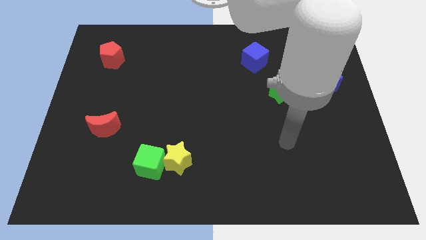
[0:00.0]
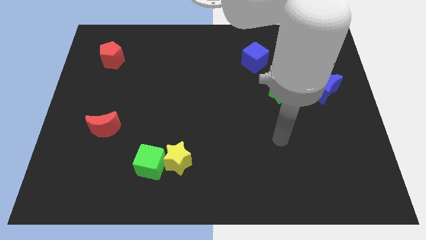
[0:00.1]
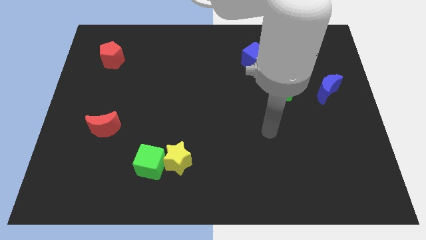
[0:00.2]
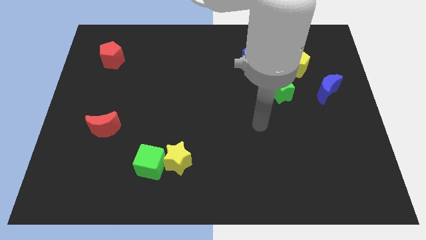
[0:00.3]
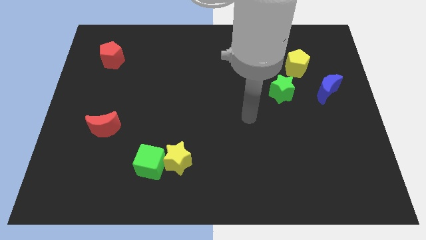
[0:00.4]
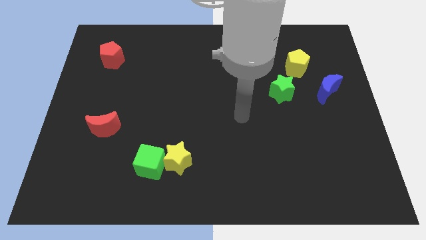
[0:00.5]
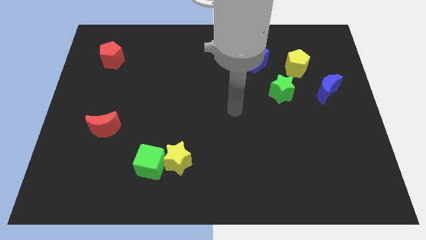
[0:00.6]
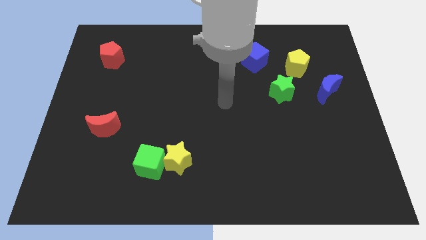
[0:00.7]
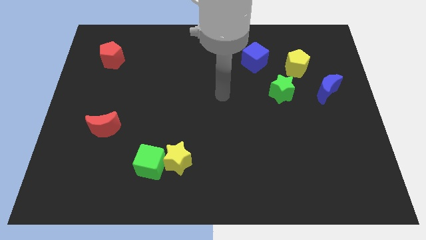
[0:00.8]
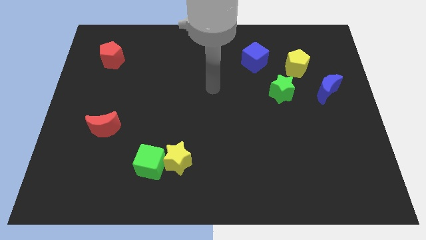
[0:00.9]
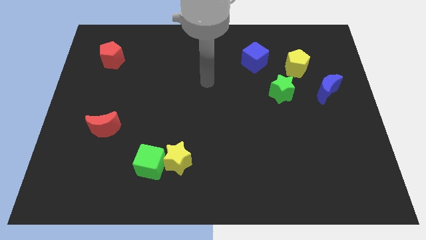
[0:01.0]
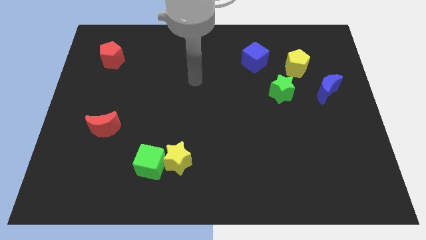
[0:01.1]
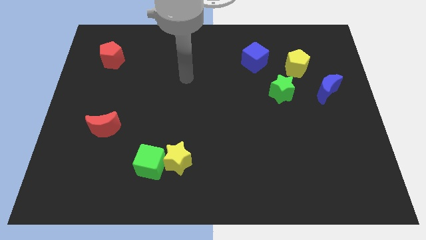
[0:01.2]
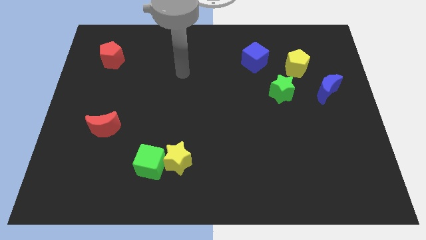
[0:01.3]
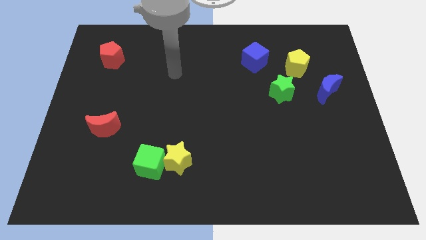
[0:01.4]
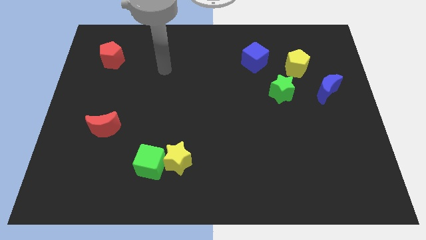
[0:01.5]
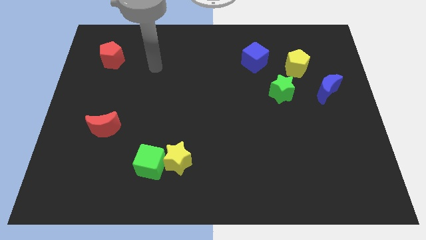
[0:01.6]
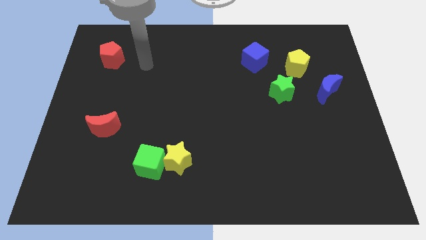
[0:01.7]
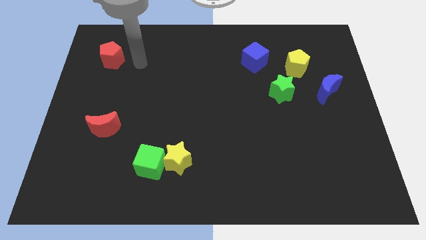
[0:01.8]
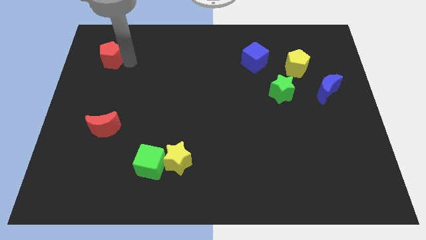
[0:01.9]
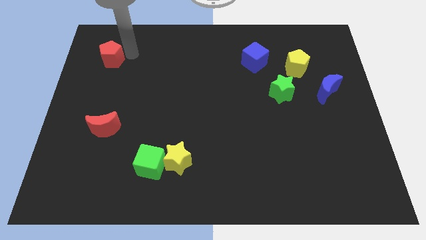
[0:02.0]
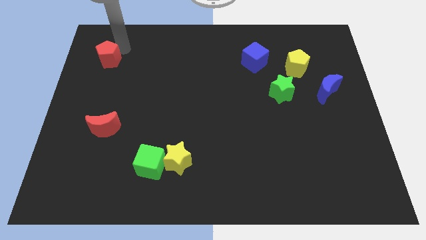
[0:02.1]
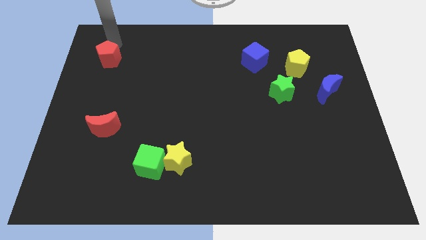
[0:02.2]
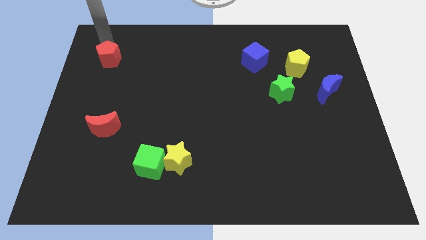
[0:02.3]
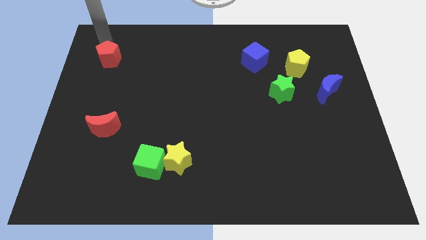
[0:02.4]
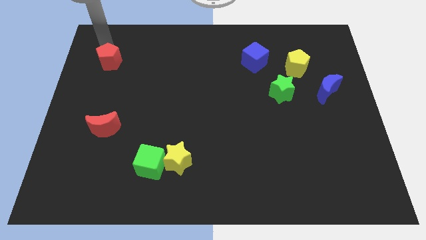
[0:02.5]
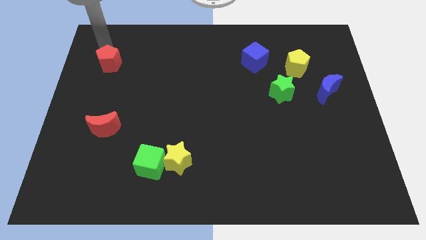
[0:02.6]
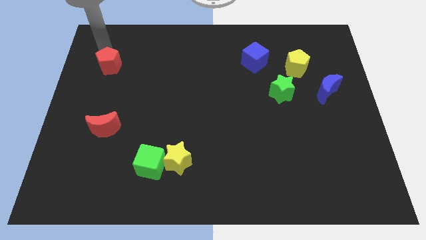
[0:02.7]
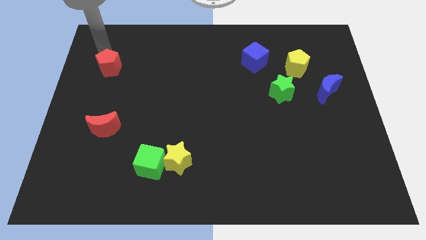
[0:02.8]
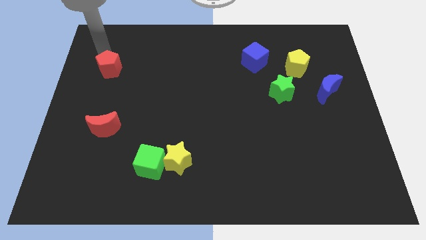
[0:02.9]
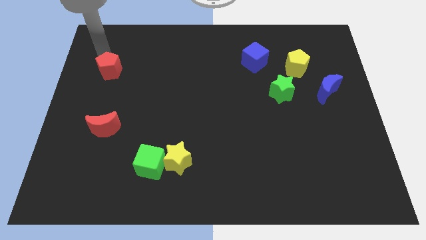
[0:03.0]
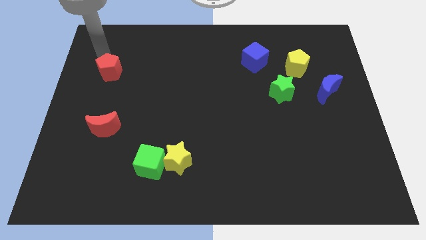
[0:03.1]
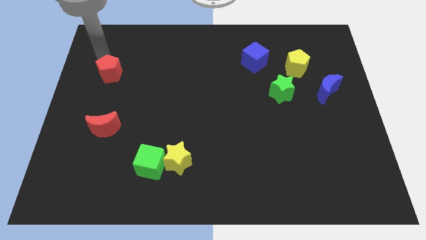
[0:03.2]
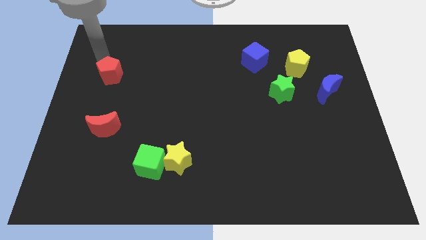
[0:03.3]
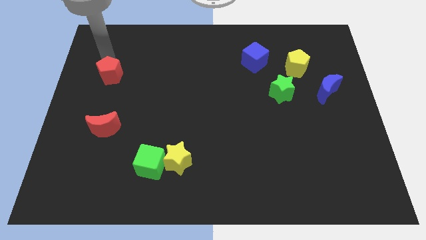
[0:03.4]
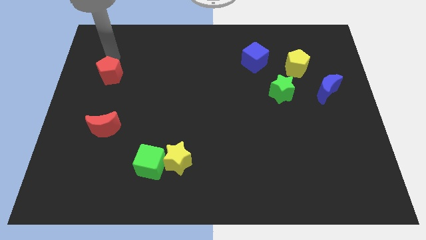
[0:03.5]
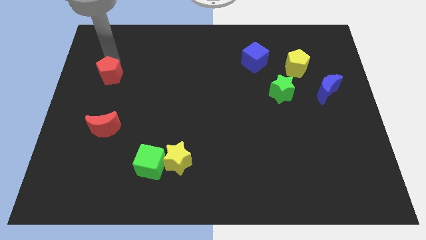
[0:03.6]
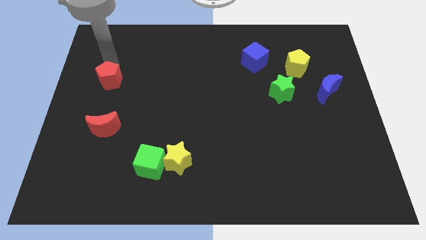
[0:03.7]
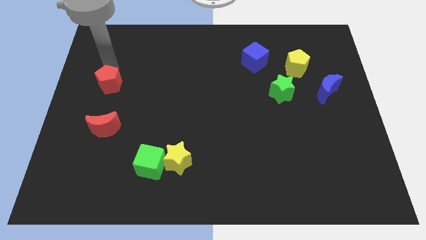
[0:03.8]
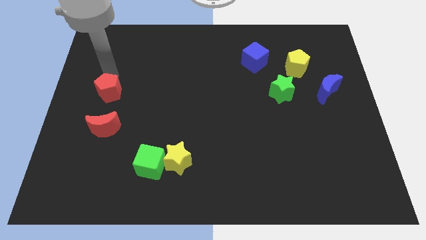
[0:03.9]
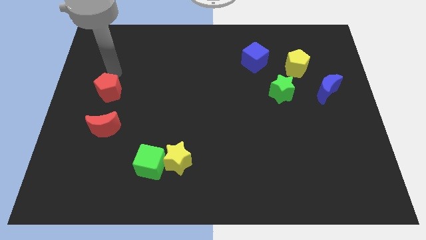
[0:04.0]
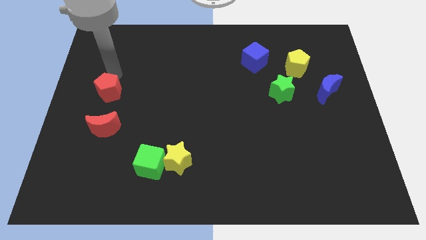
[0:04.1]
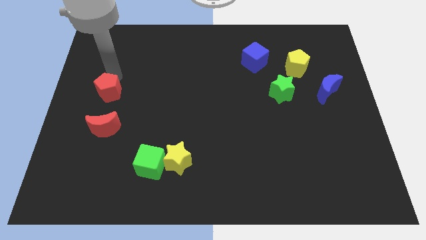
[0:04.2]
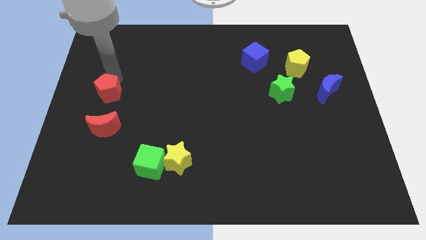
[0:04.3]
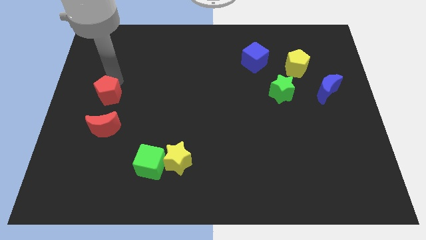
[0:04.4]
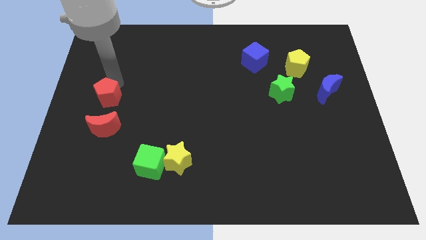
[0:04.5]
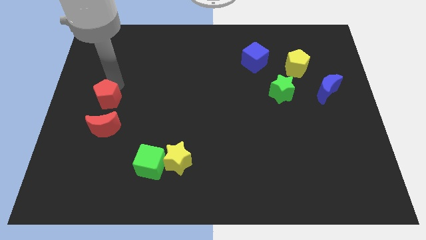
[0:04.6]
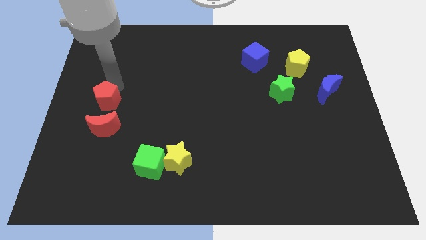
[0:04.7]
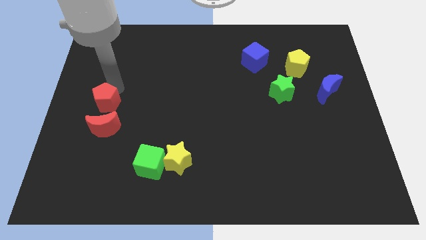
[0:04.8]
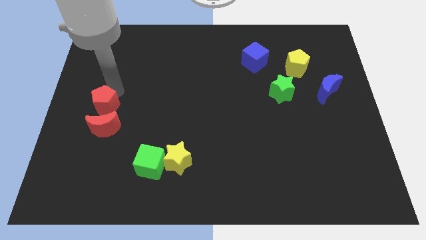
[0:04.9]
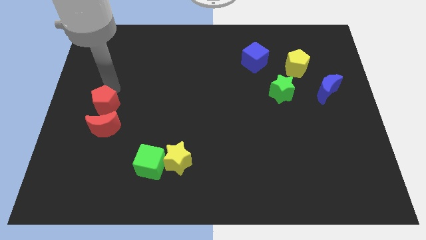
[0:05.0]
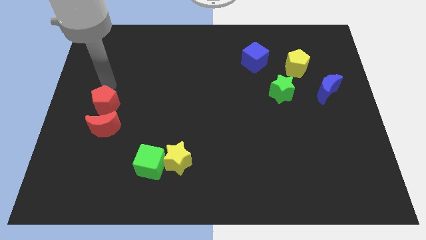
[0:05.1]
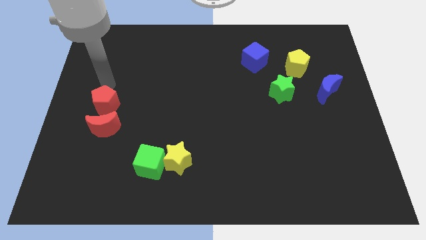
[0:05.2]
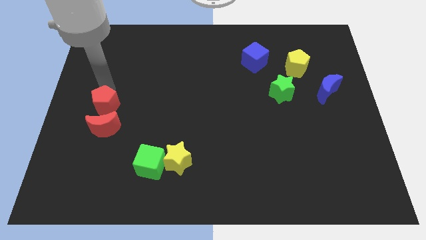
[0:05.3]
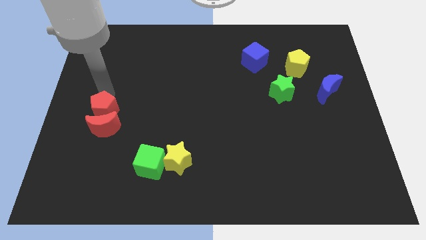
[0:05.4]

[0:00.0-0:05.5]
push the red pentagon to the red moon

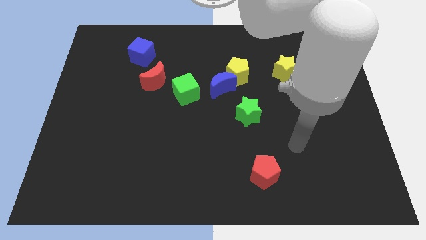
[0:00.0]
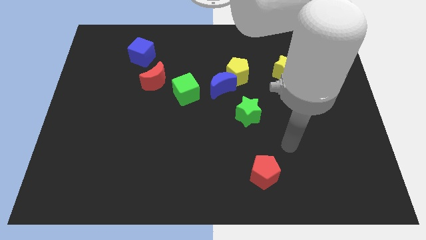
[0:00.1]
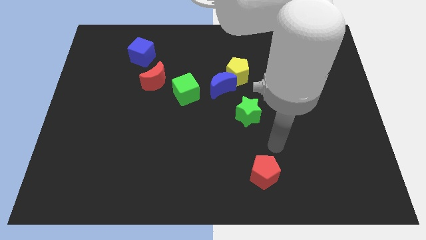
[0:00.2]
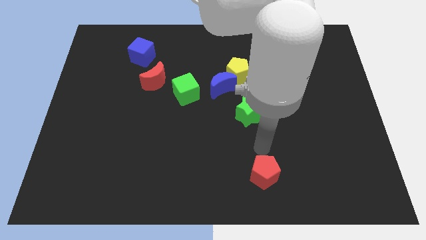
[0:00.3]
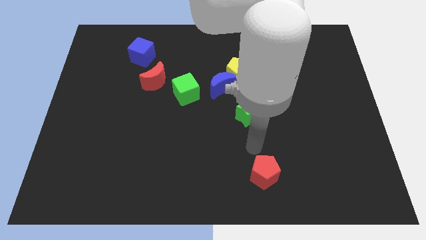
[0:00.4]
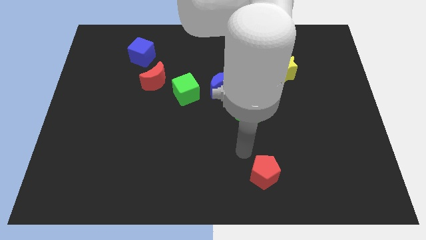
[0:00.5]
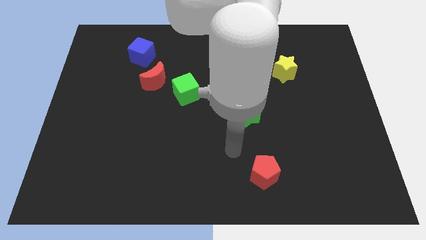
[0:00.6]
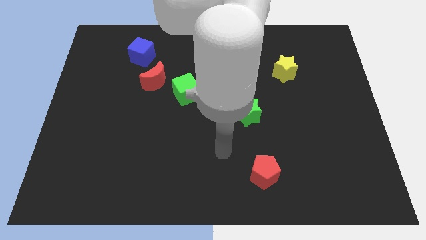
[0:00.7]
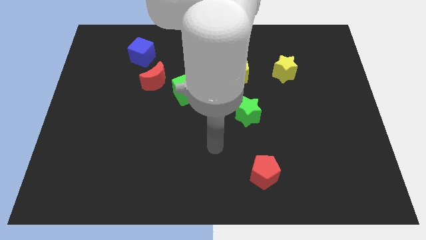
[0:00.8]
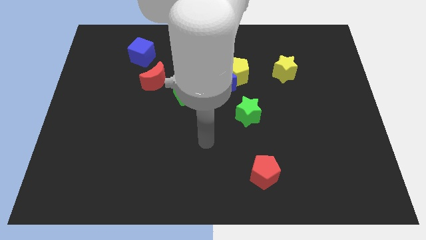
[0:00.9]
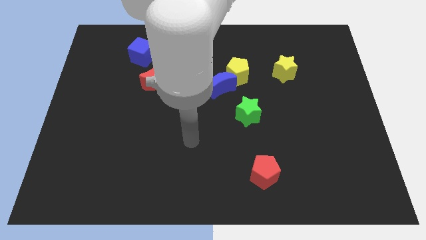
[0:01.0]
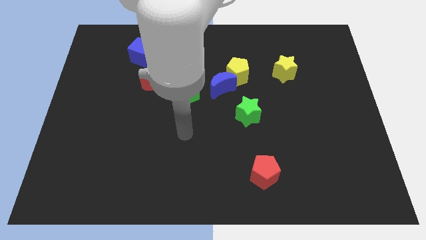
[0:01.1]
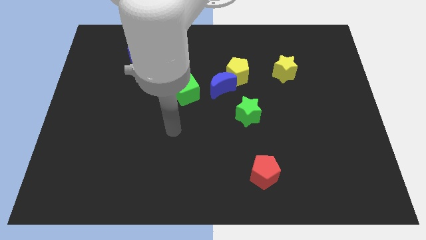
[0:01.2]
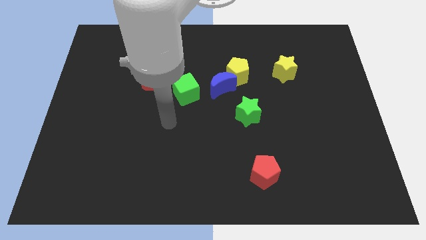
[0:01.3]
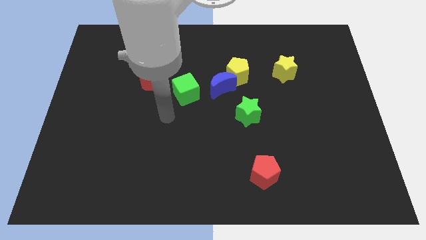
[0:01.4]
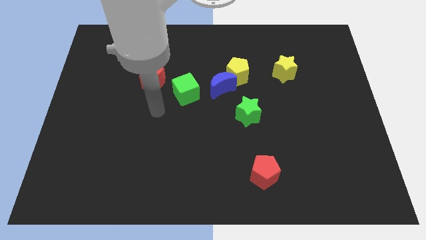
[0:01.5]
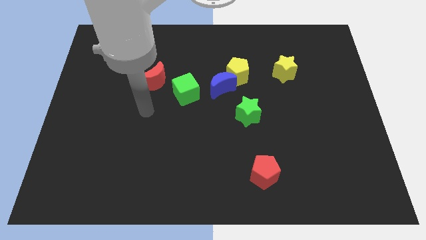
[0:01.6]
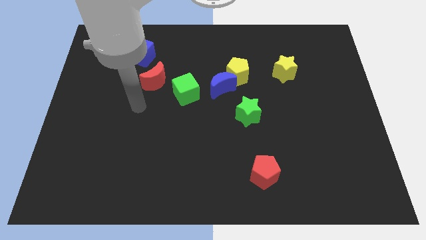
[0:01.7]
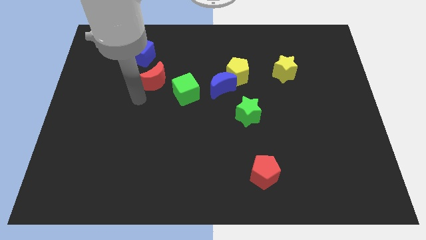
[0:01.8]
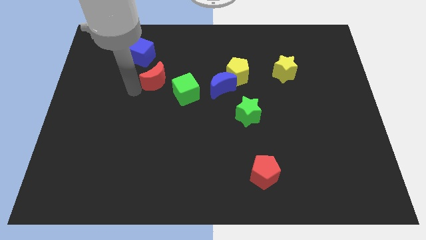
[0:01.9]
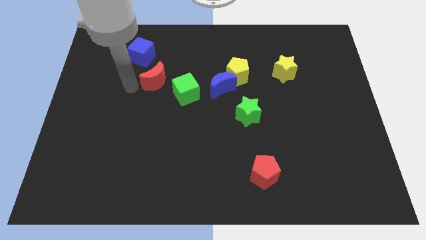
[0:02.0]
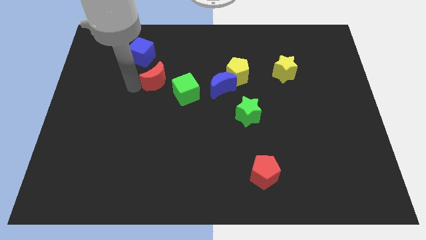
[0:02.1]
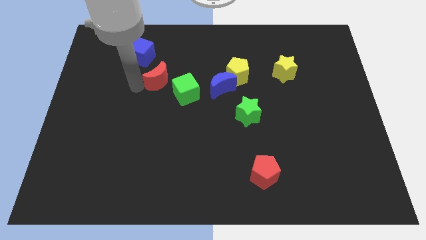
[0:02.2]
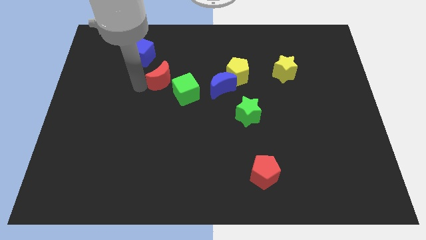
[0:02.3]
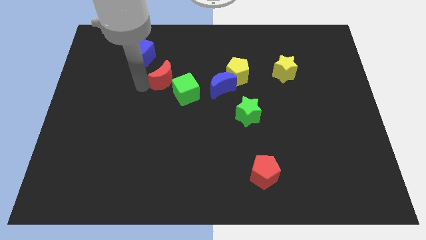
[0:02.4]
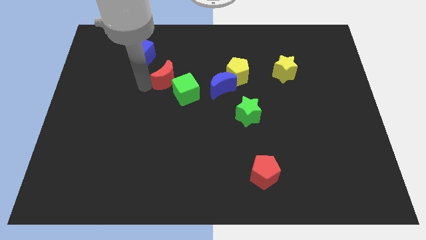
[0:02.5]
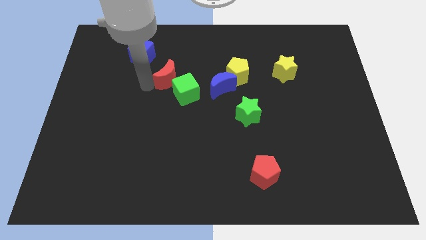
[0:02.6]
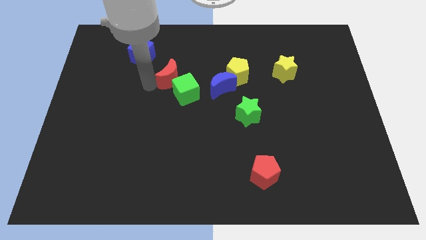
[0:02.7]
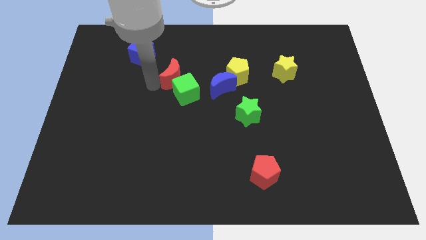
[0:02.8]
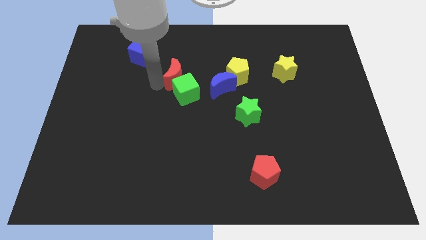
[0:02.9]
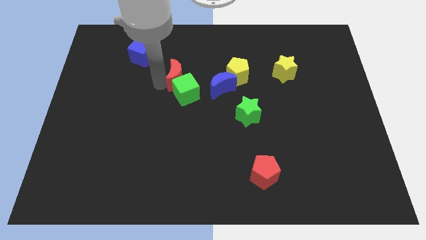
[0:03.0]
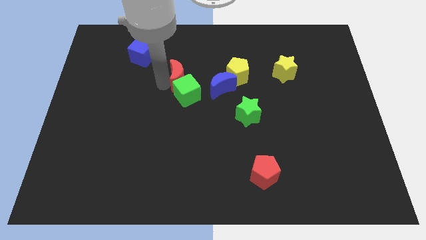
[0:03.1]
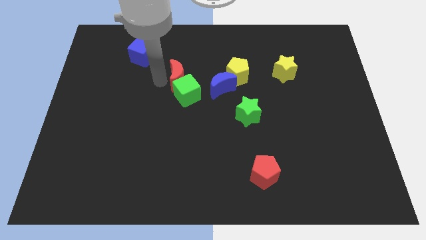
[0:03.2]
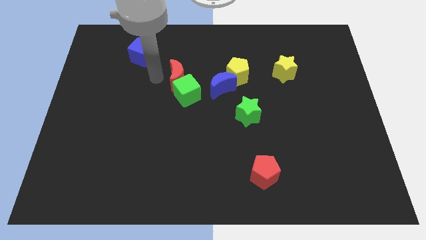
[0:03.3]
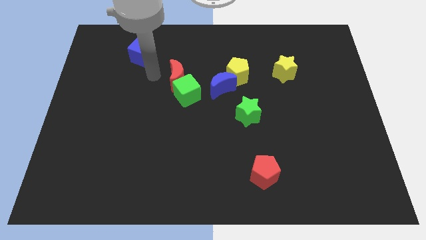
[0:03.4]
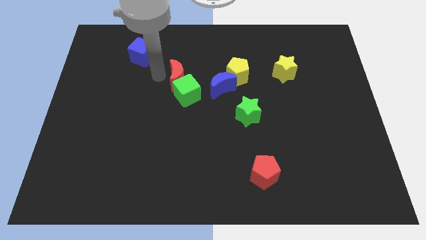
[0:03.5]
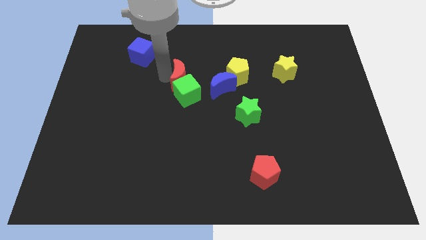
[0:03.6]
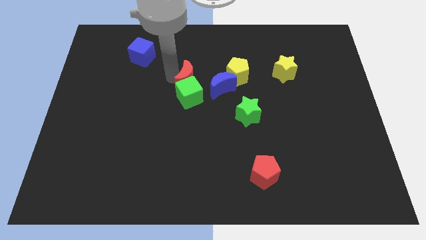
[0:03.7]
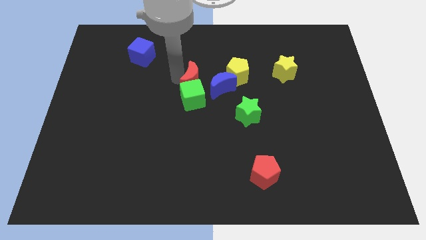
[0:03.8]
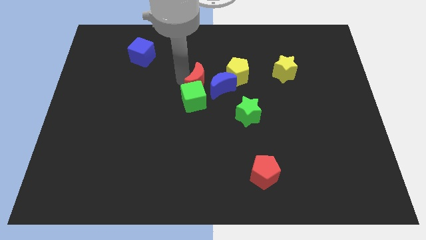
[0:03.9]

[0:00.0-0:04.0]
put the red moon towards the blue moon
